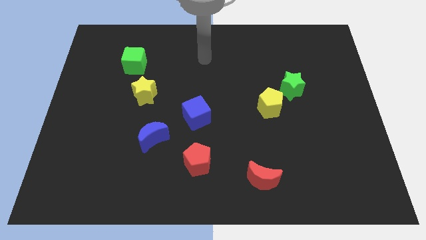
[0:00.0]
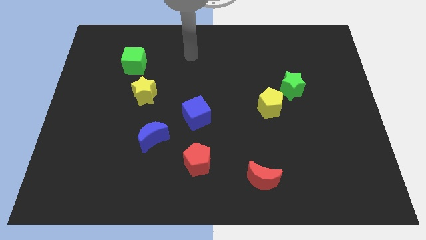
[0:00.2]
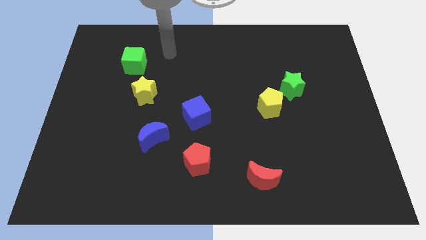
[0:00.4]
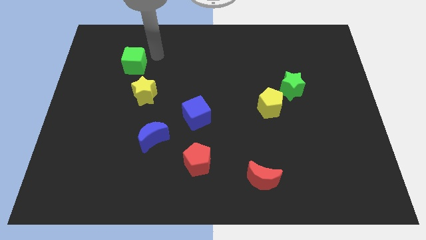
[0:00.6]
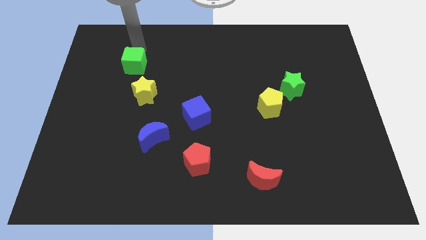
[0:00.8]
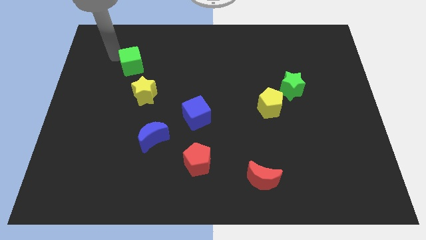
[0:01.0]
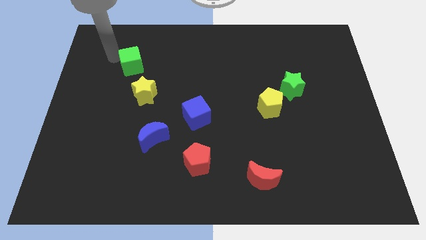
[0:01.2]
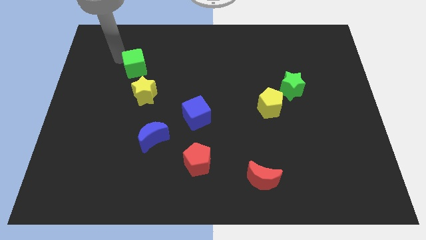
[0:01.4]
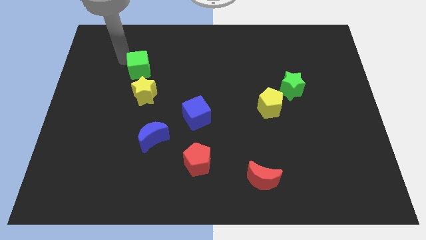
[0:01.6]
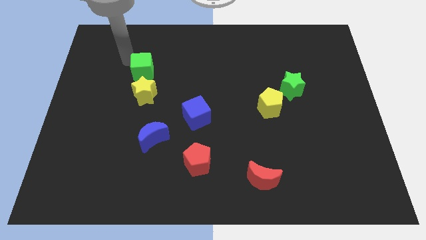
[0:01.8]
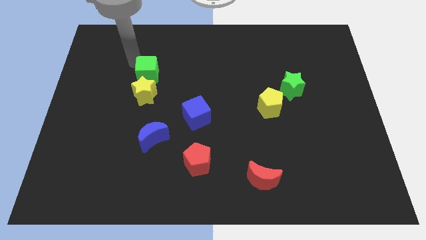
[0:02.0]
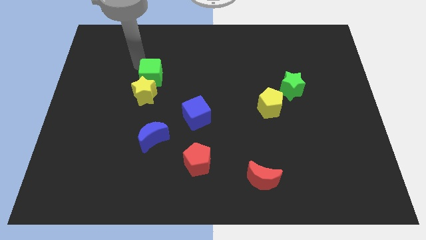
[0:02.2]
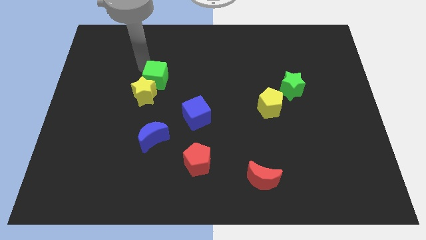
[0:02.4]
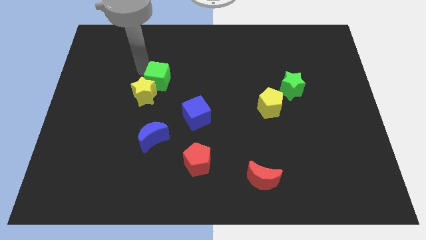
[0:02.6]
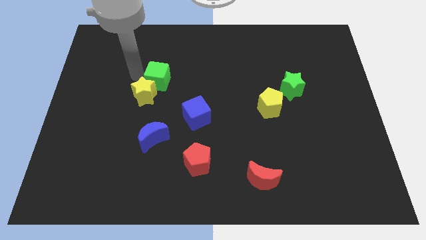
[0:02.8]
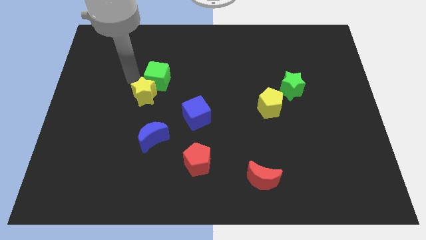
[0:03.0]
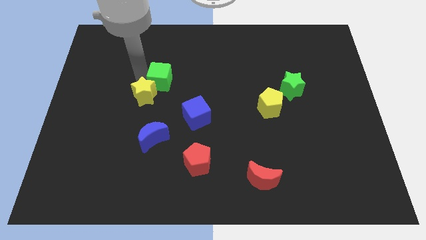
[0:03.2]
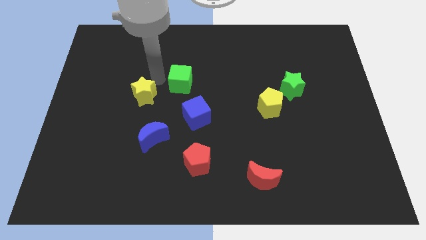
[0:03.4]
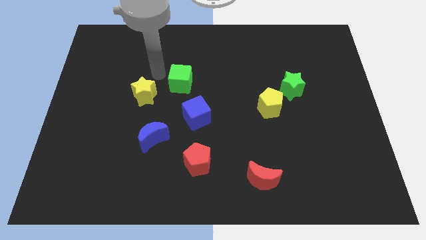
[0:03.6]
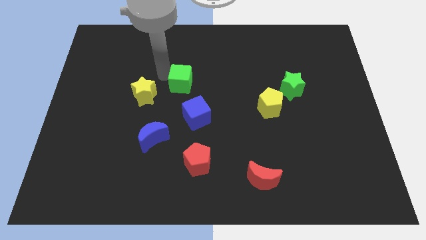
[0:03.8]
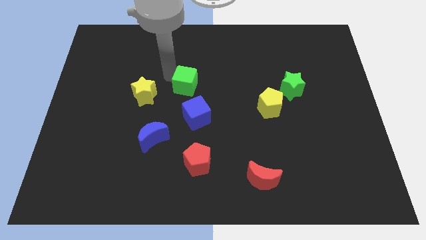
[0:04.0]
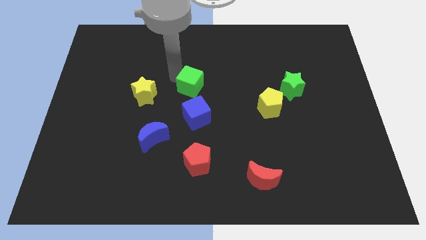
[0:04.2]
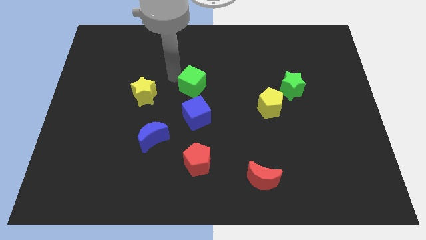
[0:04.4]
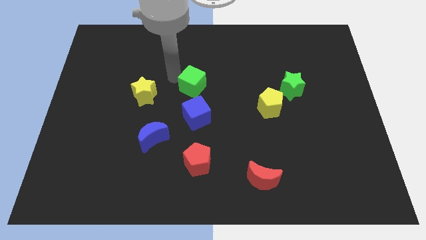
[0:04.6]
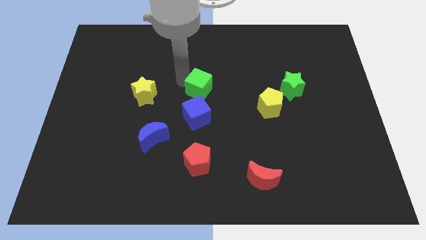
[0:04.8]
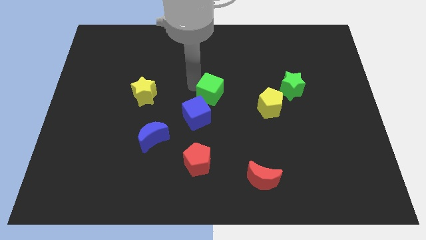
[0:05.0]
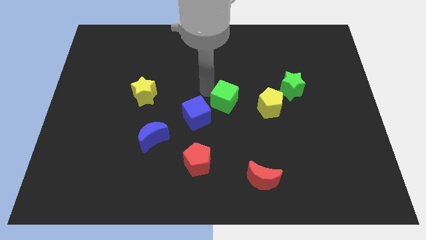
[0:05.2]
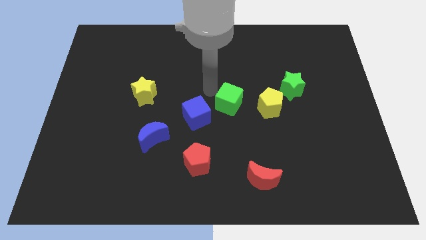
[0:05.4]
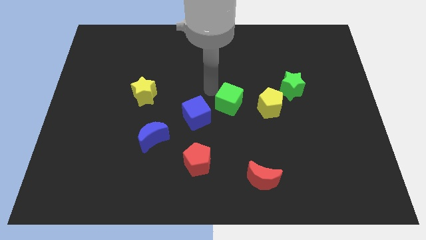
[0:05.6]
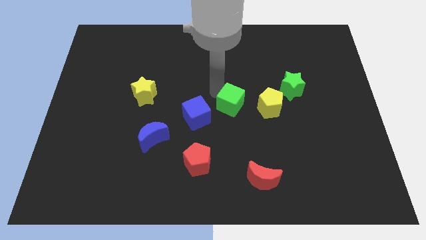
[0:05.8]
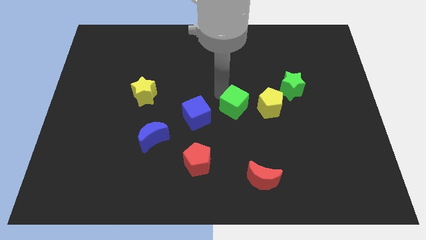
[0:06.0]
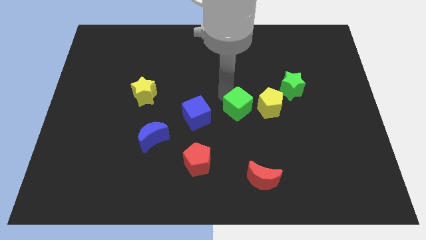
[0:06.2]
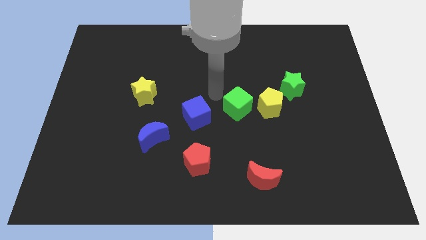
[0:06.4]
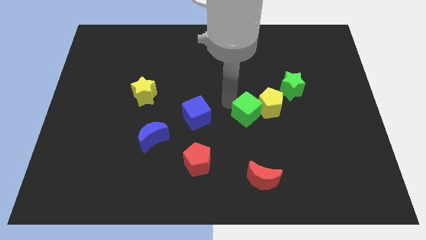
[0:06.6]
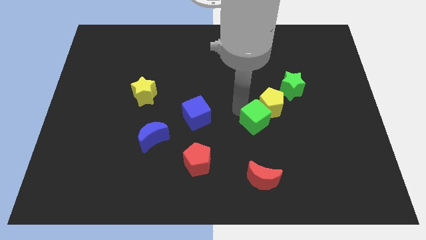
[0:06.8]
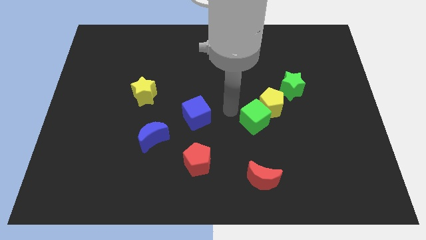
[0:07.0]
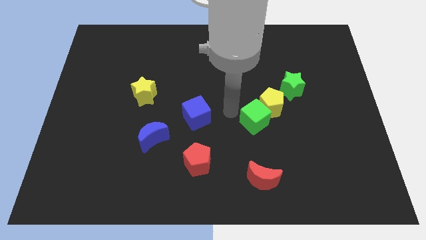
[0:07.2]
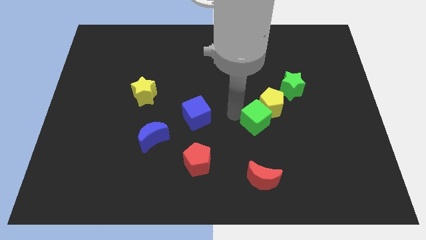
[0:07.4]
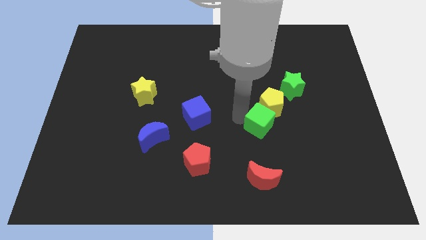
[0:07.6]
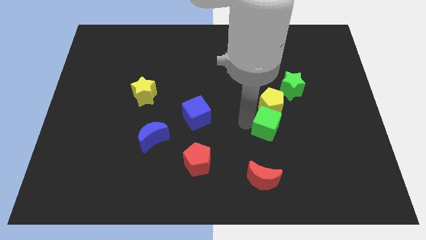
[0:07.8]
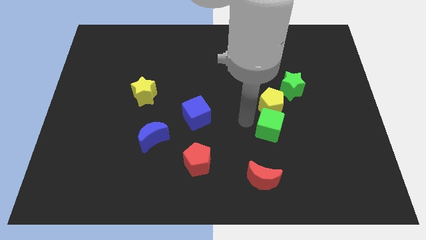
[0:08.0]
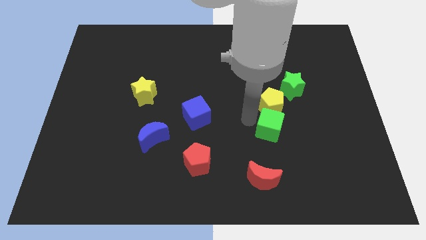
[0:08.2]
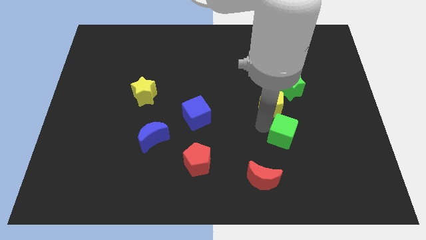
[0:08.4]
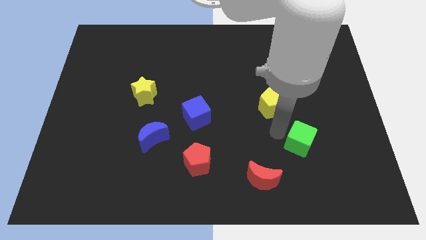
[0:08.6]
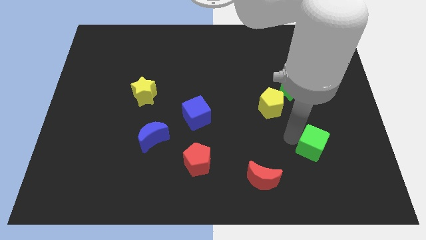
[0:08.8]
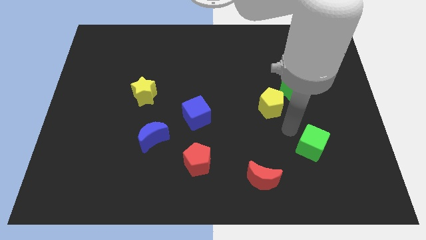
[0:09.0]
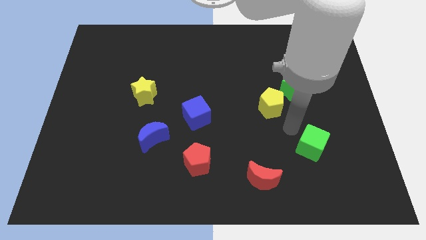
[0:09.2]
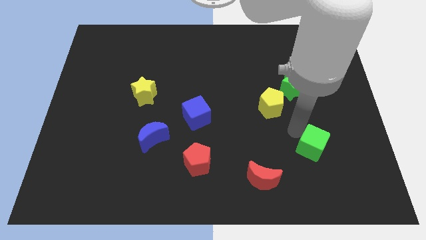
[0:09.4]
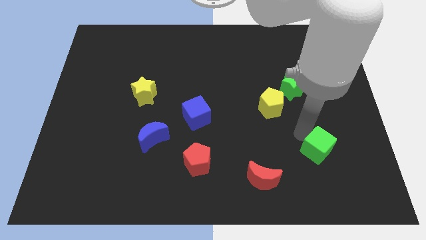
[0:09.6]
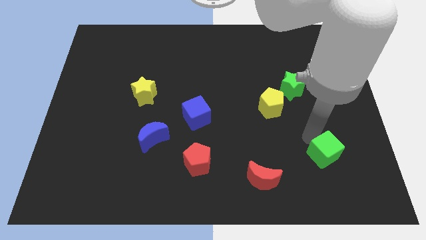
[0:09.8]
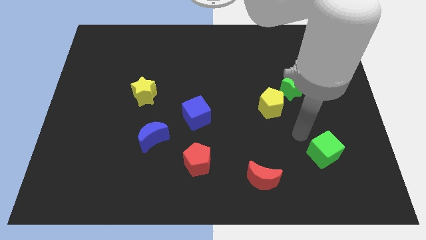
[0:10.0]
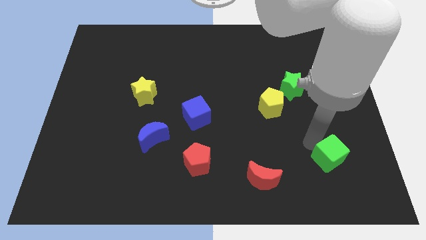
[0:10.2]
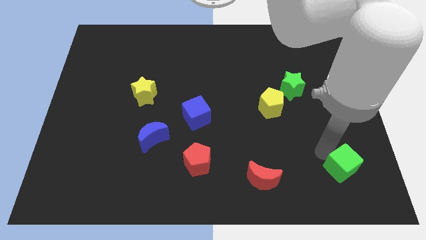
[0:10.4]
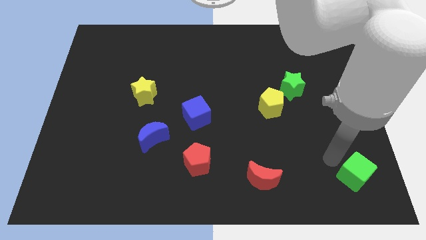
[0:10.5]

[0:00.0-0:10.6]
push the green cube to the bottom right

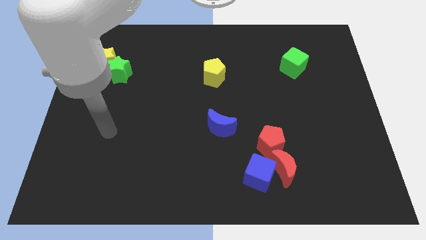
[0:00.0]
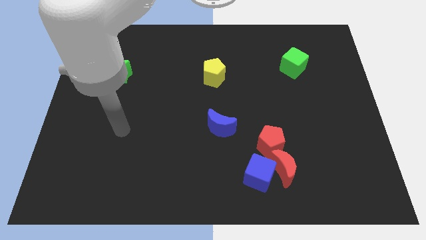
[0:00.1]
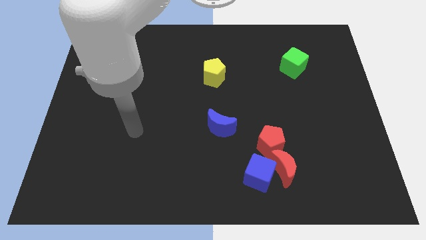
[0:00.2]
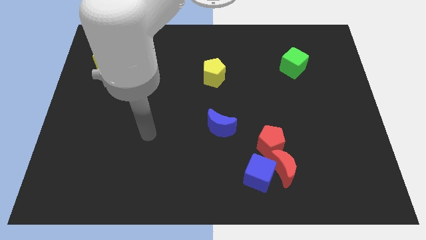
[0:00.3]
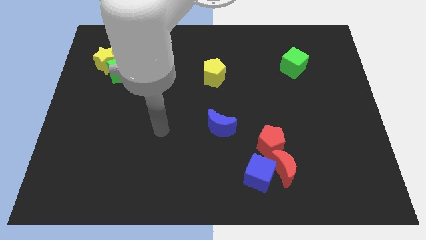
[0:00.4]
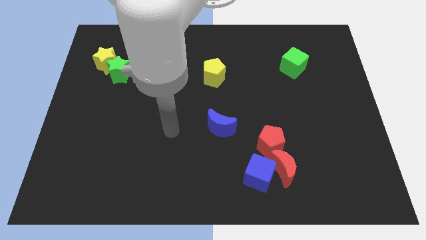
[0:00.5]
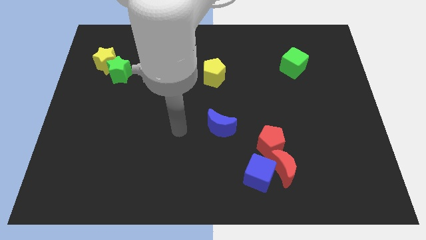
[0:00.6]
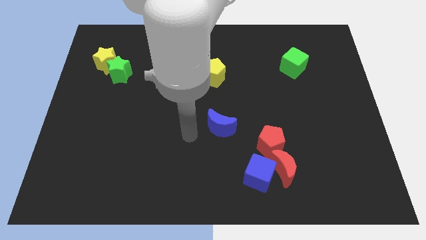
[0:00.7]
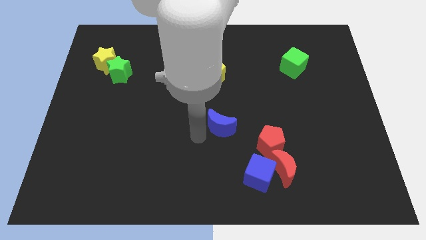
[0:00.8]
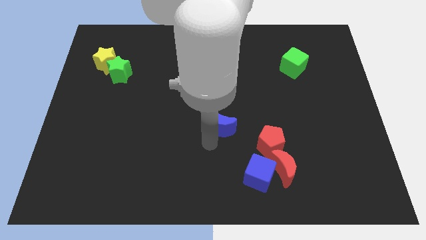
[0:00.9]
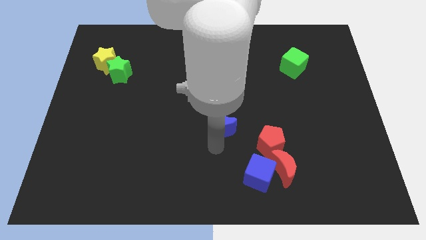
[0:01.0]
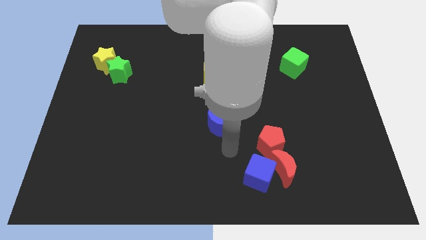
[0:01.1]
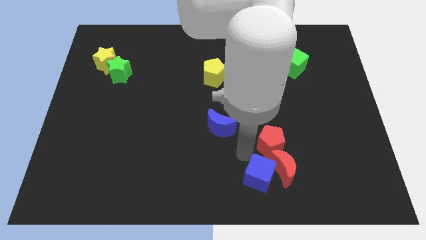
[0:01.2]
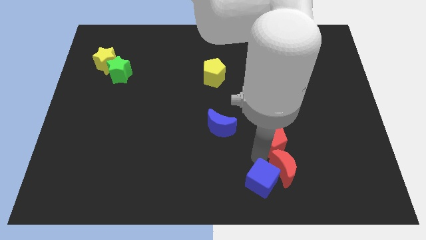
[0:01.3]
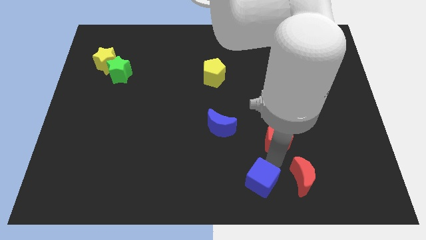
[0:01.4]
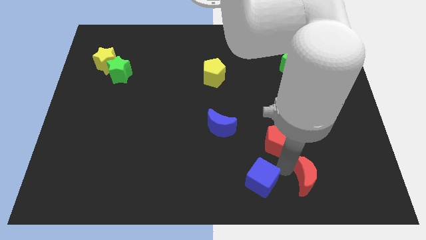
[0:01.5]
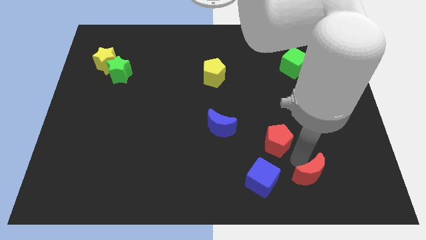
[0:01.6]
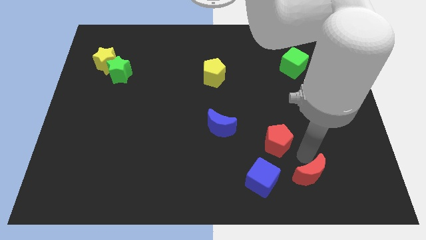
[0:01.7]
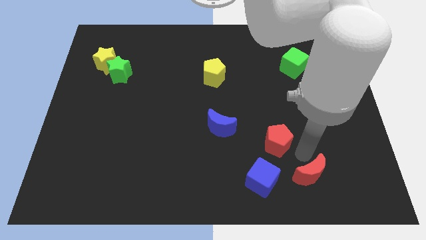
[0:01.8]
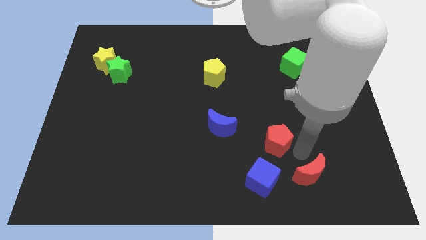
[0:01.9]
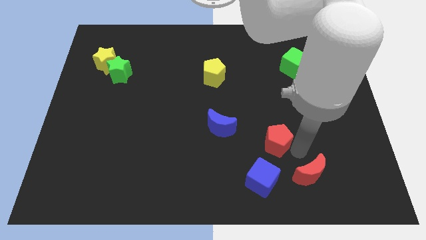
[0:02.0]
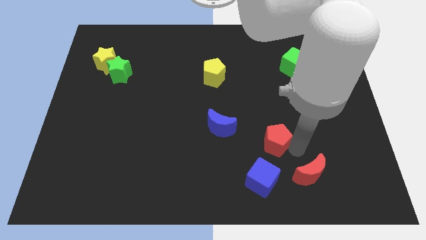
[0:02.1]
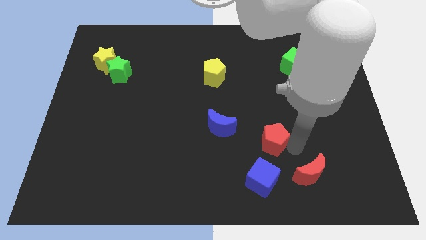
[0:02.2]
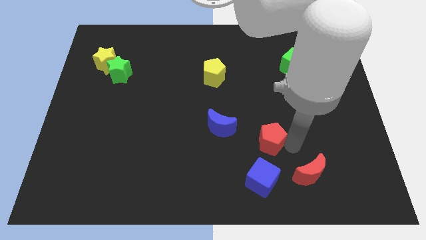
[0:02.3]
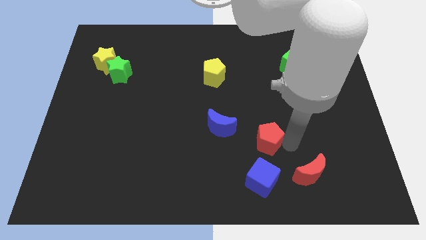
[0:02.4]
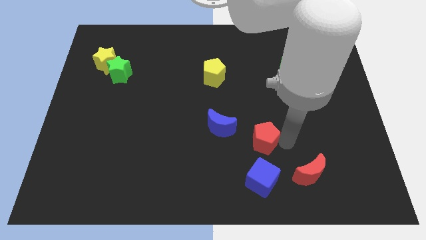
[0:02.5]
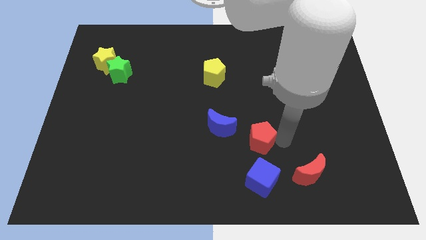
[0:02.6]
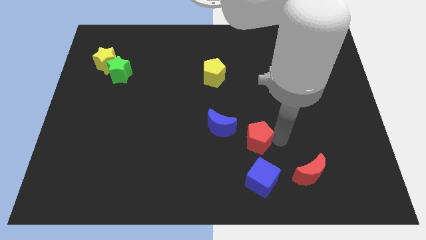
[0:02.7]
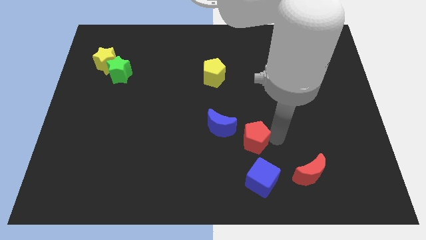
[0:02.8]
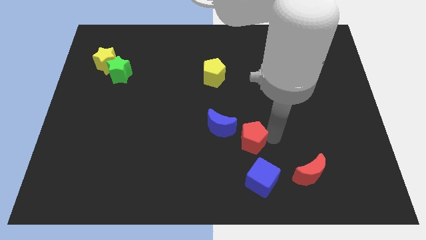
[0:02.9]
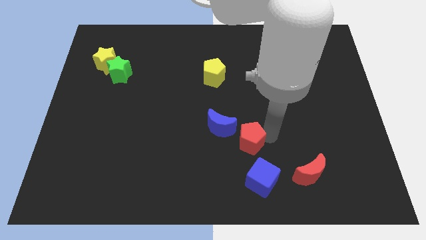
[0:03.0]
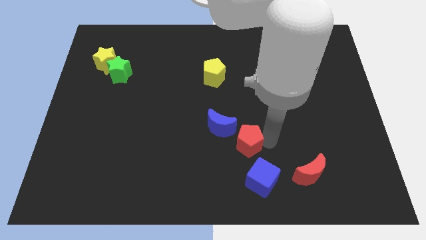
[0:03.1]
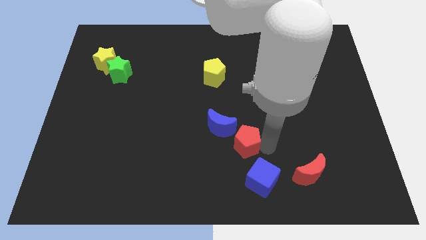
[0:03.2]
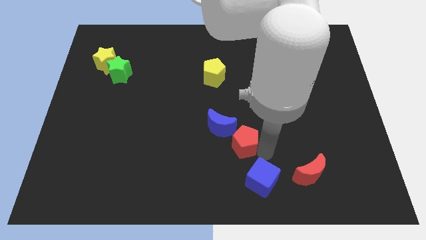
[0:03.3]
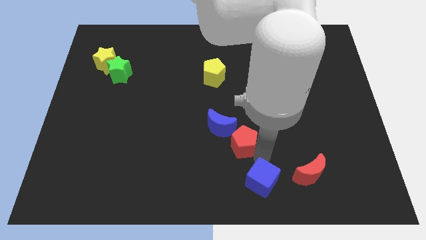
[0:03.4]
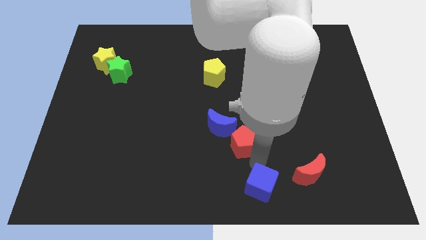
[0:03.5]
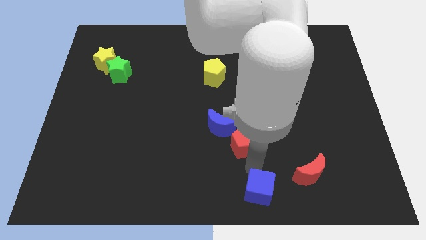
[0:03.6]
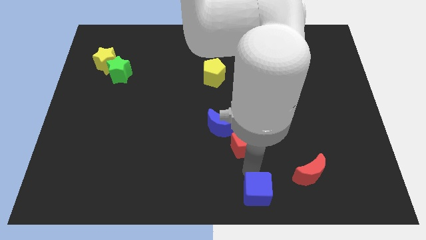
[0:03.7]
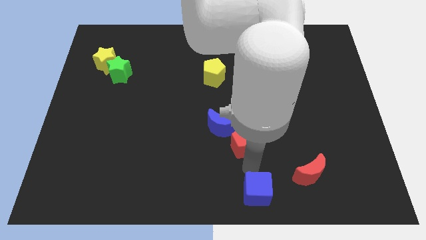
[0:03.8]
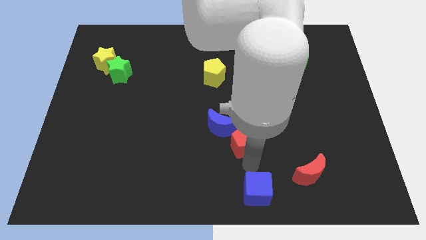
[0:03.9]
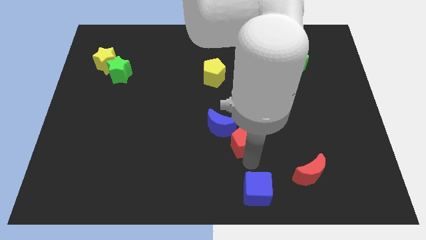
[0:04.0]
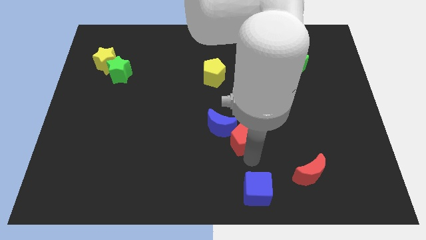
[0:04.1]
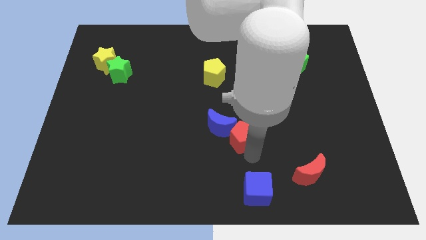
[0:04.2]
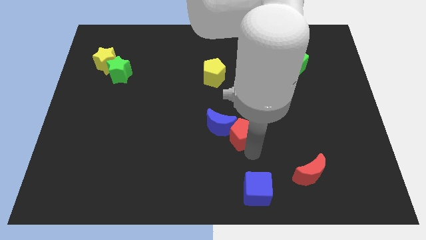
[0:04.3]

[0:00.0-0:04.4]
slide the red pentagon to the middle
